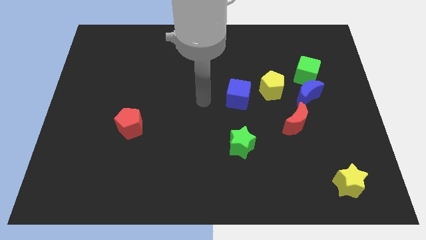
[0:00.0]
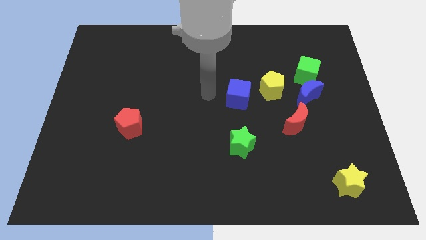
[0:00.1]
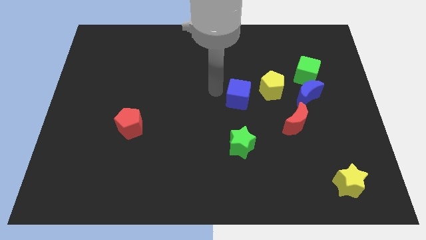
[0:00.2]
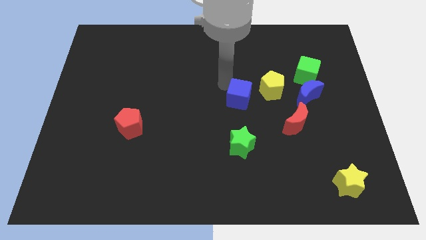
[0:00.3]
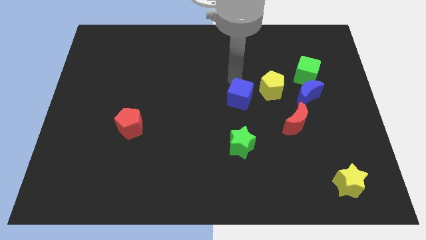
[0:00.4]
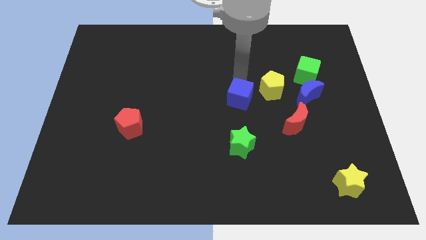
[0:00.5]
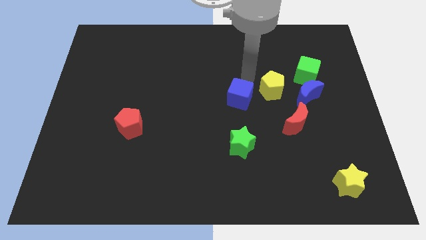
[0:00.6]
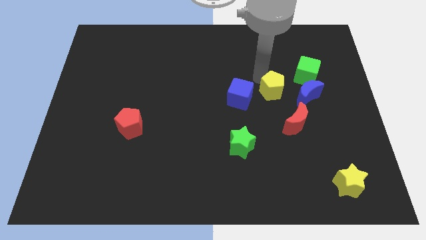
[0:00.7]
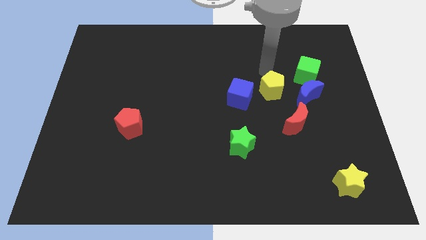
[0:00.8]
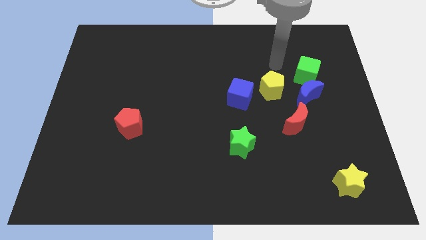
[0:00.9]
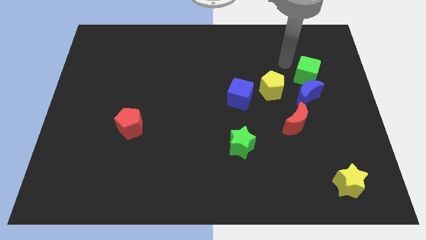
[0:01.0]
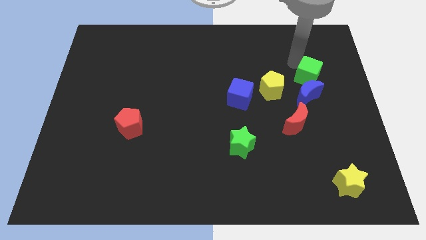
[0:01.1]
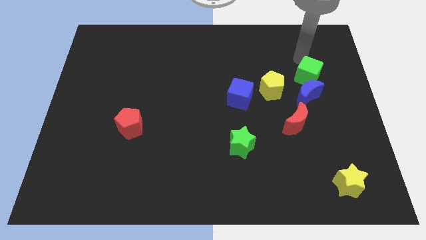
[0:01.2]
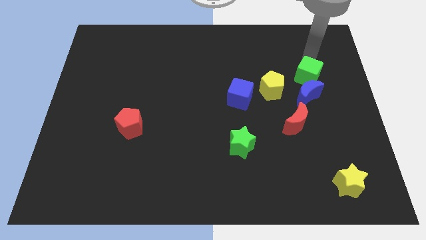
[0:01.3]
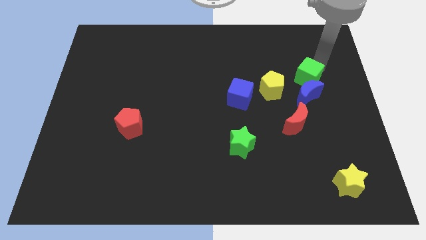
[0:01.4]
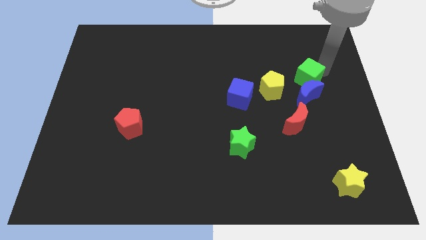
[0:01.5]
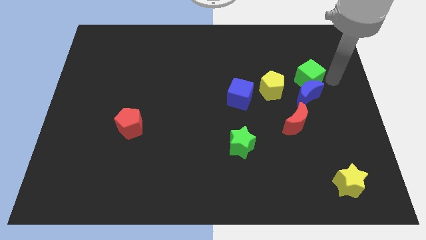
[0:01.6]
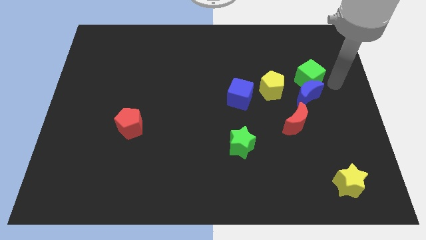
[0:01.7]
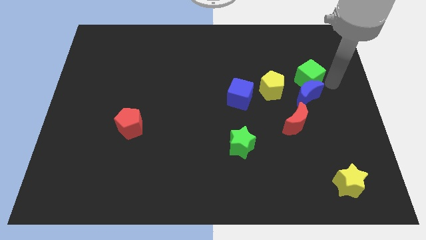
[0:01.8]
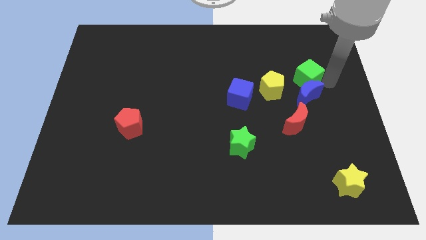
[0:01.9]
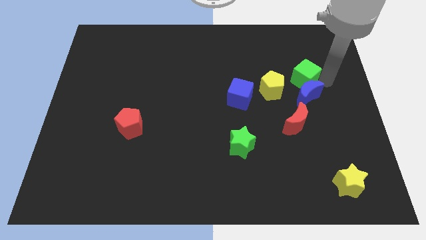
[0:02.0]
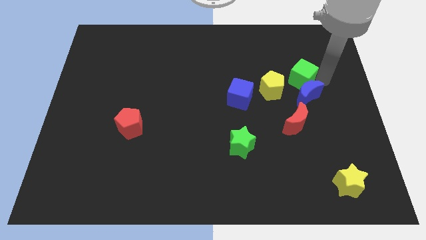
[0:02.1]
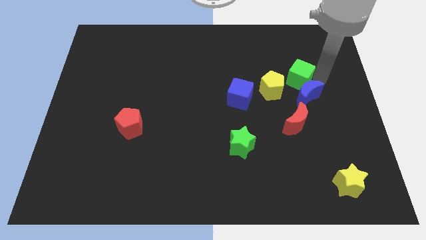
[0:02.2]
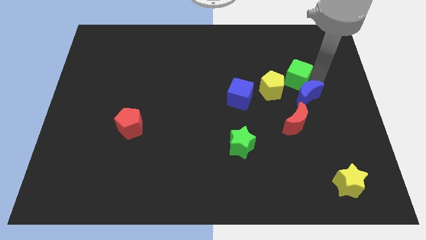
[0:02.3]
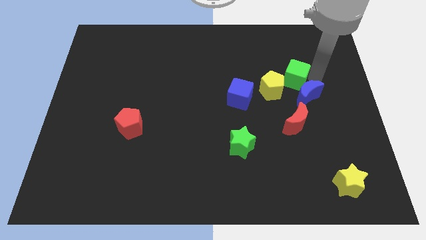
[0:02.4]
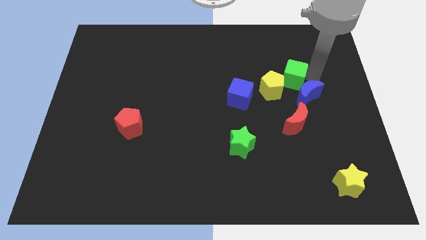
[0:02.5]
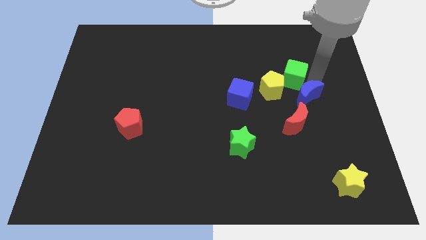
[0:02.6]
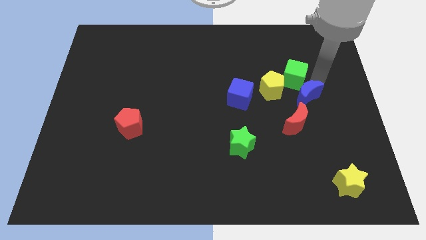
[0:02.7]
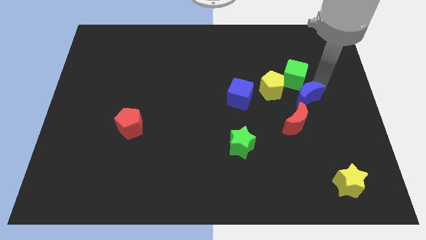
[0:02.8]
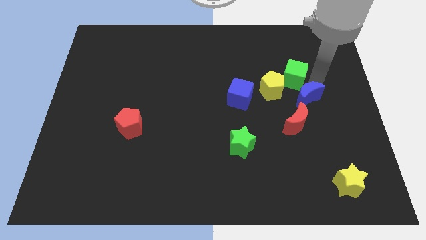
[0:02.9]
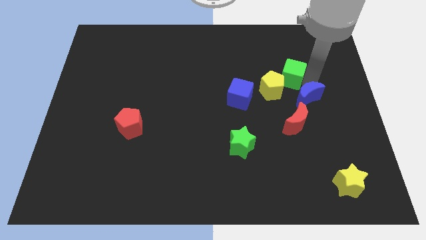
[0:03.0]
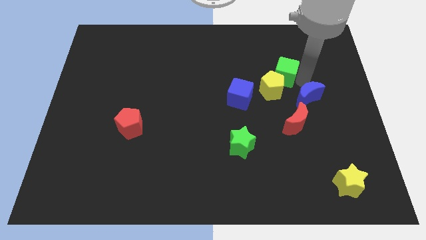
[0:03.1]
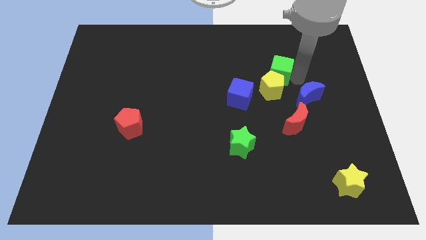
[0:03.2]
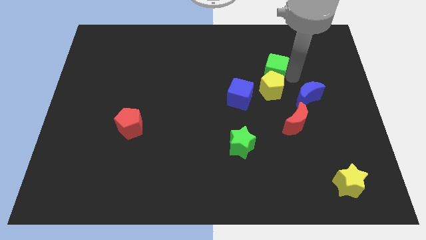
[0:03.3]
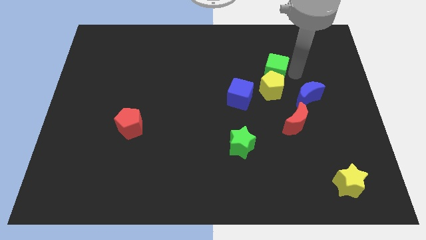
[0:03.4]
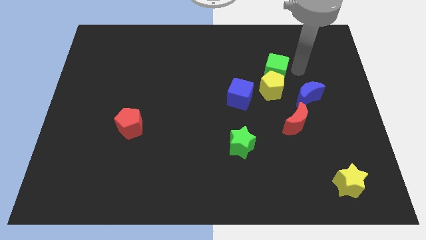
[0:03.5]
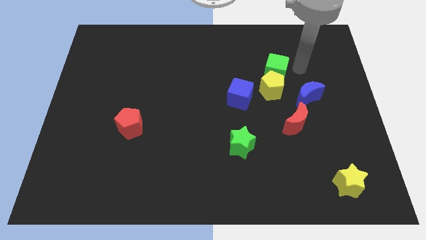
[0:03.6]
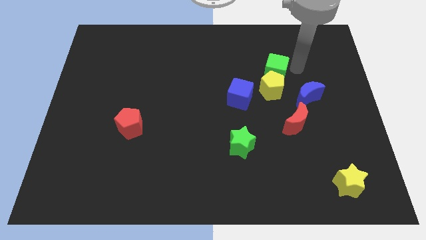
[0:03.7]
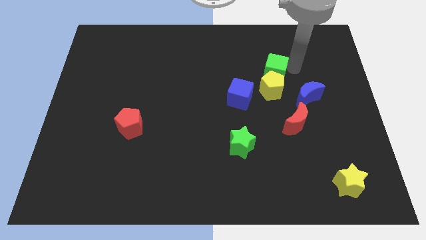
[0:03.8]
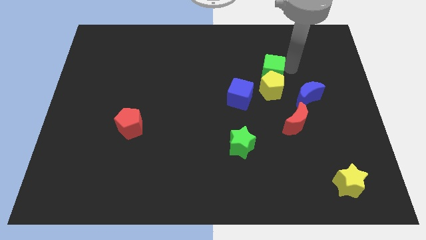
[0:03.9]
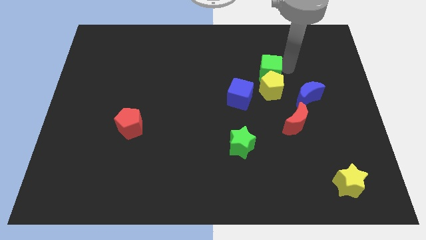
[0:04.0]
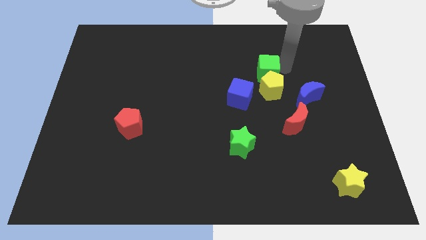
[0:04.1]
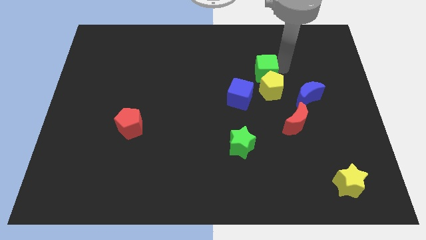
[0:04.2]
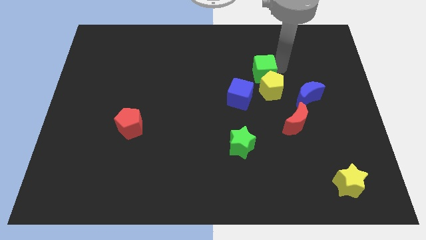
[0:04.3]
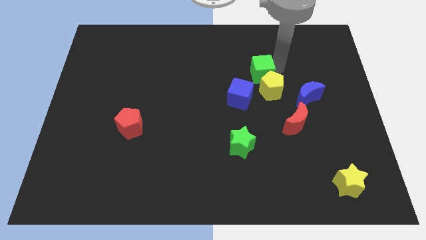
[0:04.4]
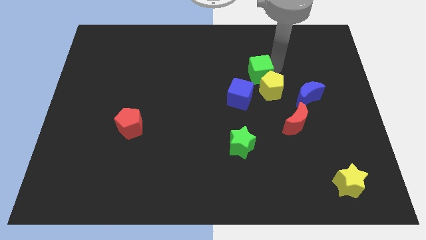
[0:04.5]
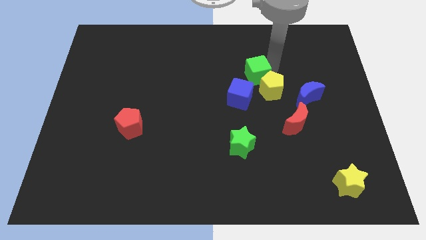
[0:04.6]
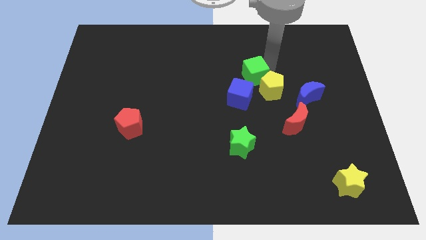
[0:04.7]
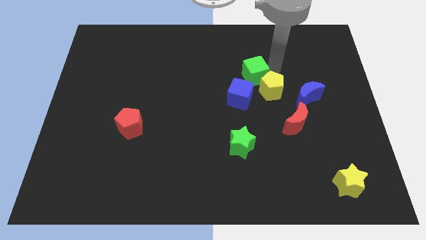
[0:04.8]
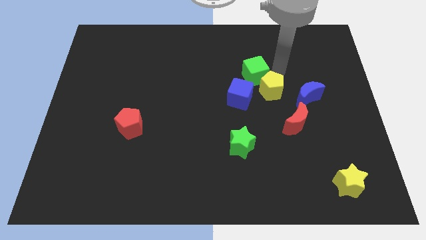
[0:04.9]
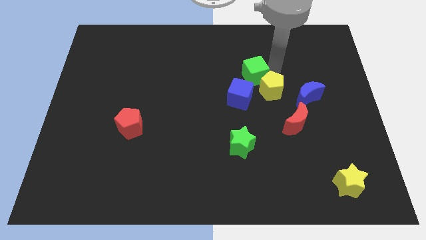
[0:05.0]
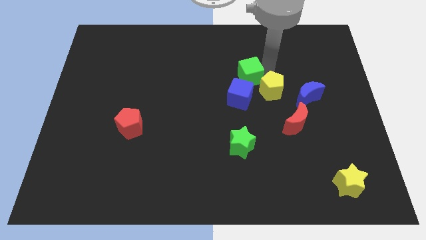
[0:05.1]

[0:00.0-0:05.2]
slide the green cube to the left of the yellow pentagon

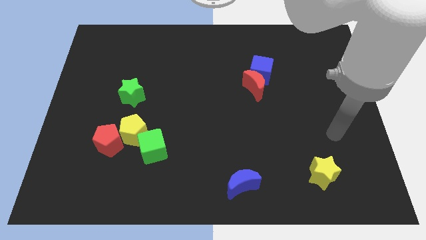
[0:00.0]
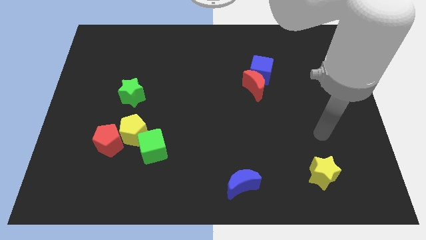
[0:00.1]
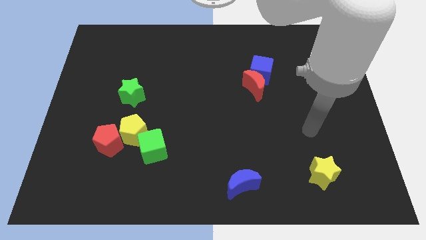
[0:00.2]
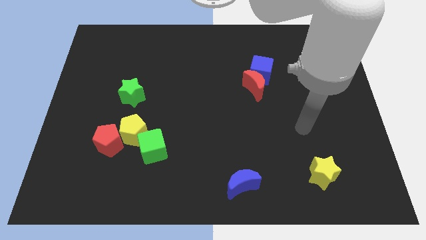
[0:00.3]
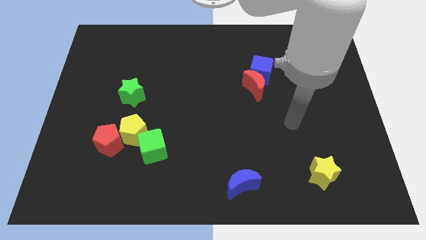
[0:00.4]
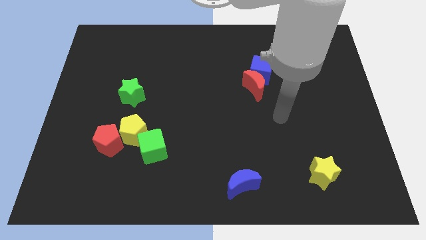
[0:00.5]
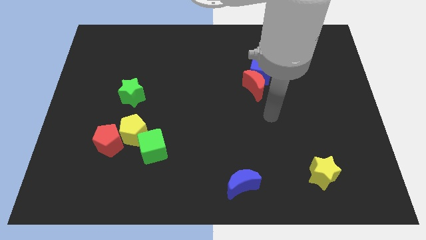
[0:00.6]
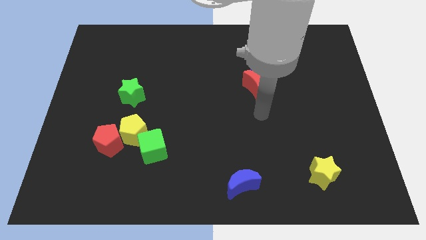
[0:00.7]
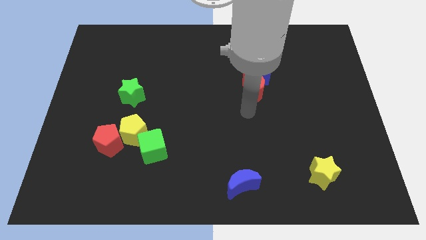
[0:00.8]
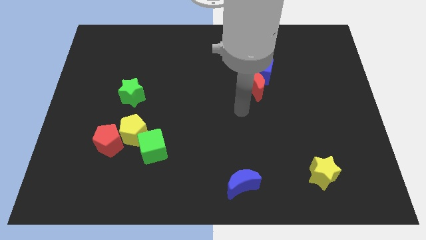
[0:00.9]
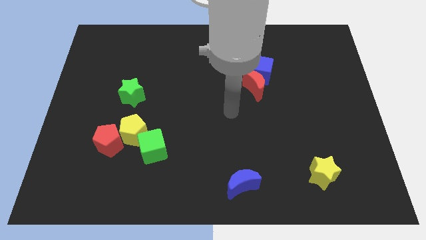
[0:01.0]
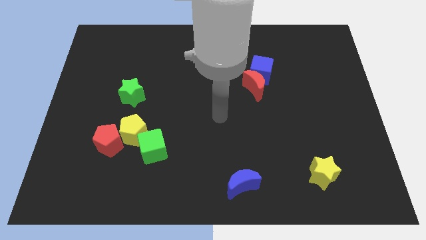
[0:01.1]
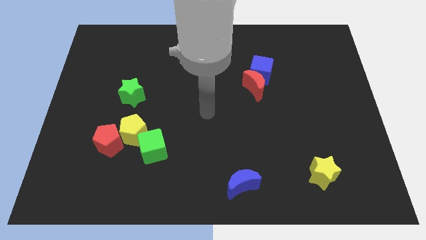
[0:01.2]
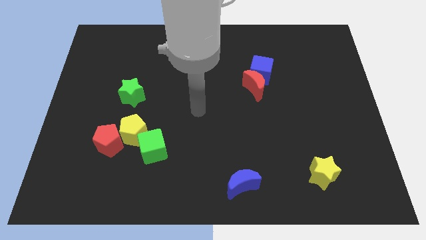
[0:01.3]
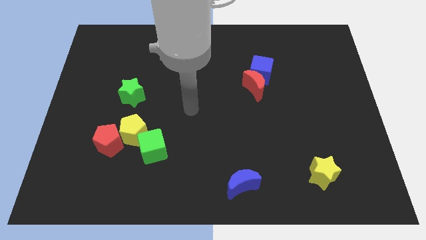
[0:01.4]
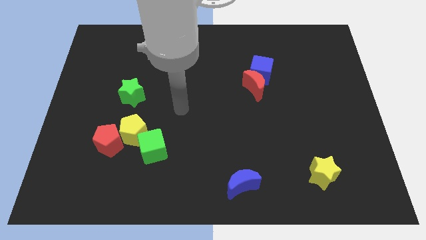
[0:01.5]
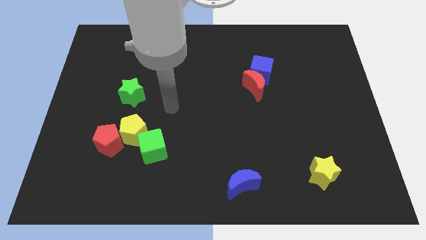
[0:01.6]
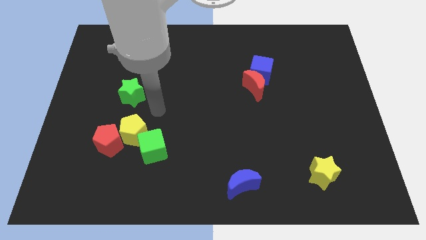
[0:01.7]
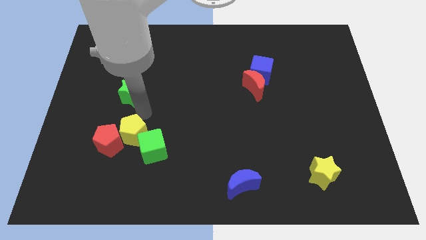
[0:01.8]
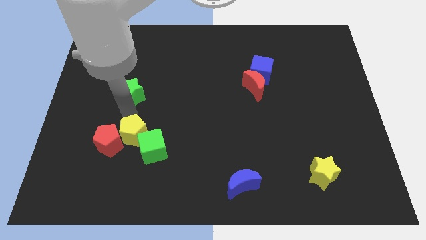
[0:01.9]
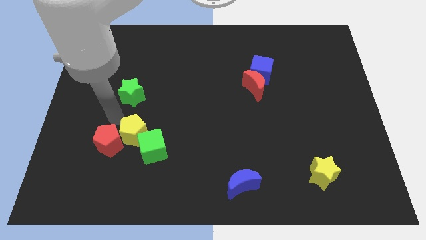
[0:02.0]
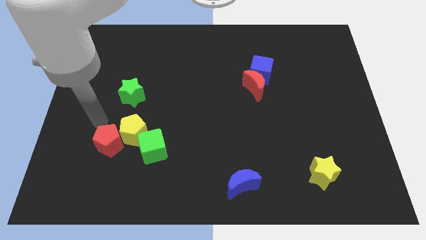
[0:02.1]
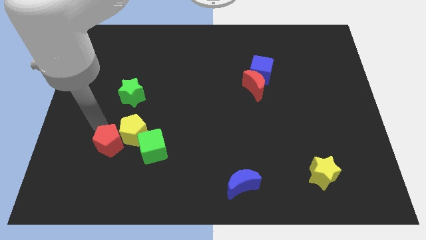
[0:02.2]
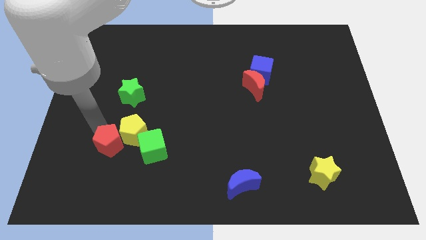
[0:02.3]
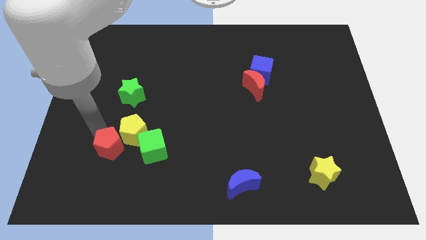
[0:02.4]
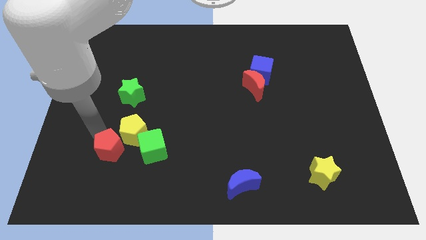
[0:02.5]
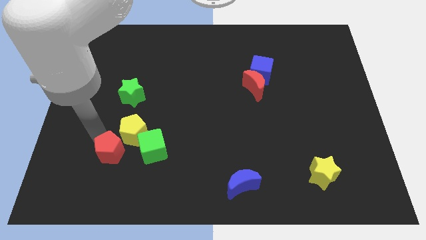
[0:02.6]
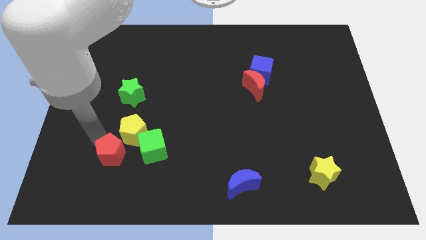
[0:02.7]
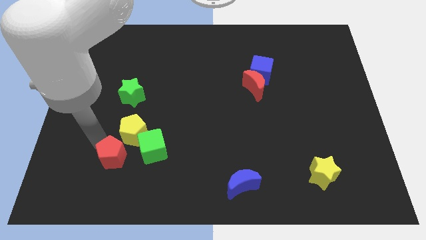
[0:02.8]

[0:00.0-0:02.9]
put the red pentagon to the bottom left of the green cube
